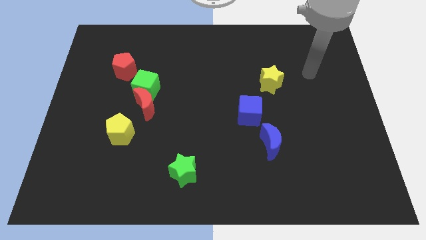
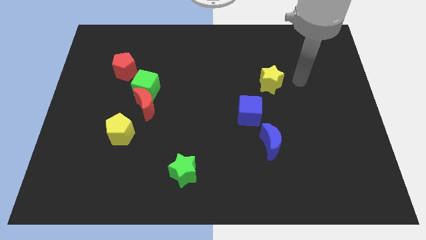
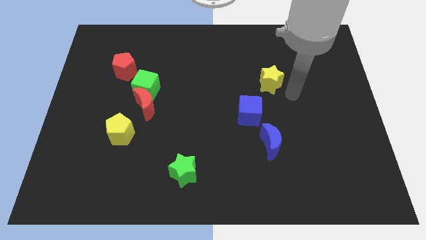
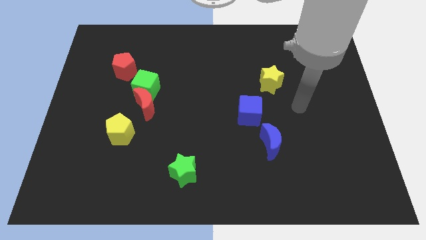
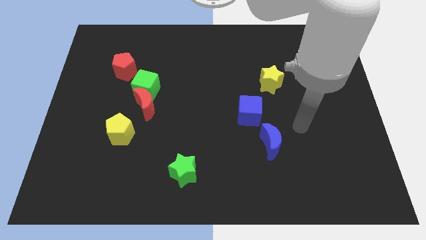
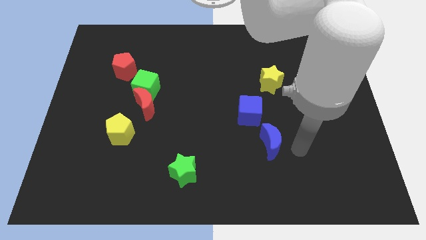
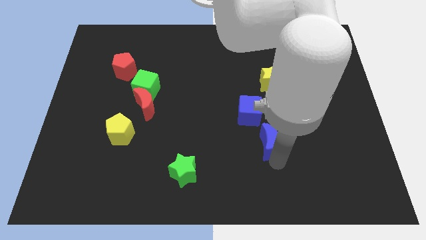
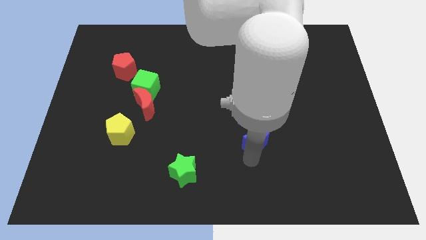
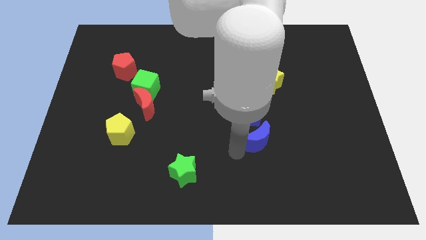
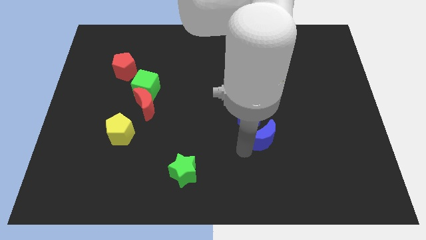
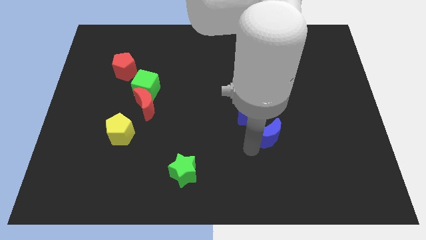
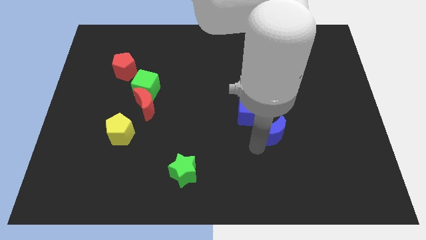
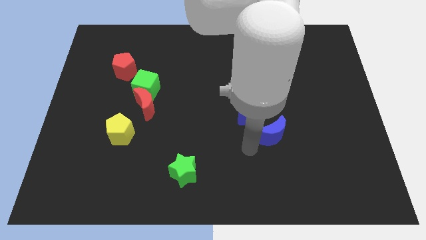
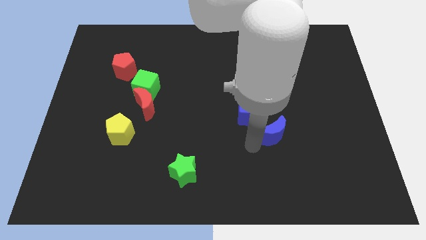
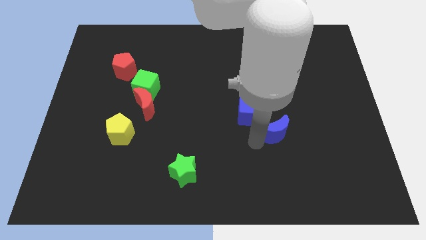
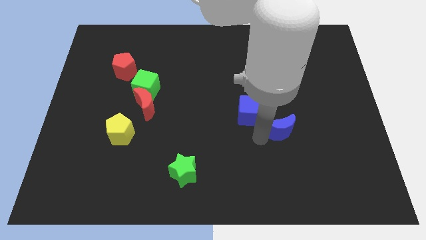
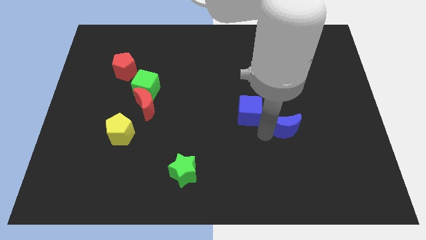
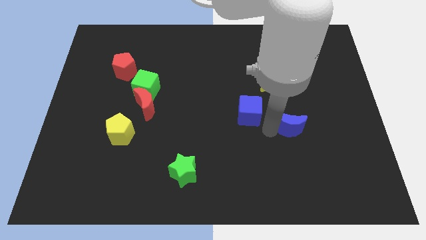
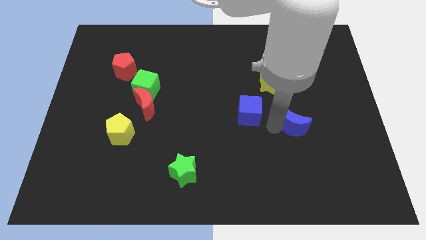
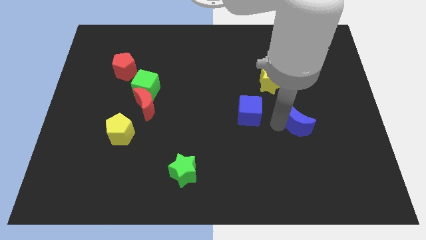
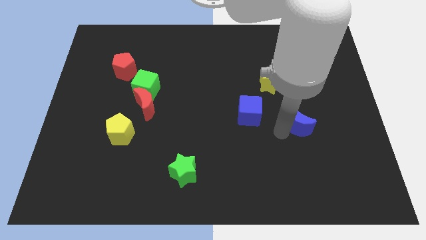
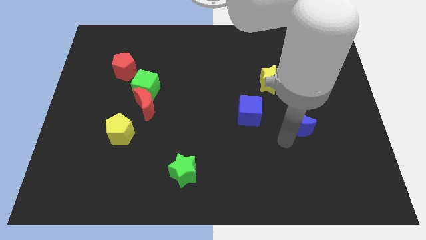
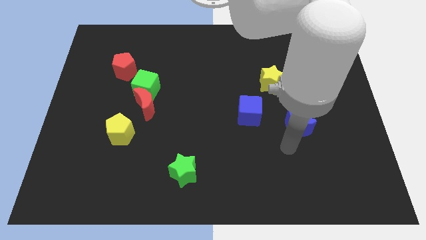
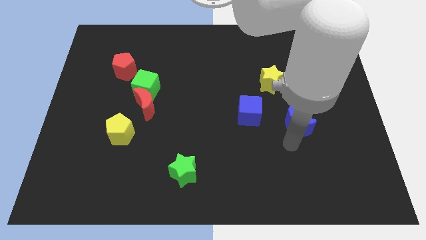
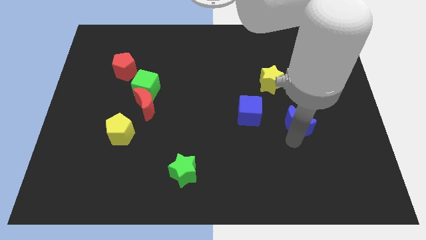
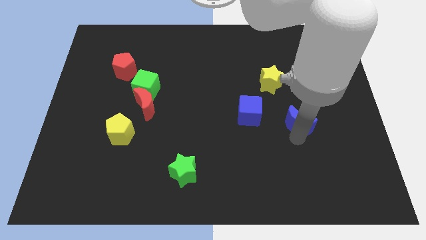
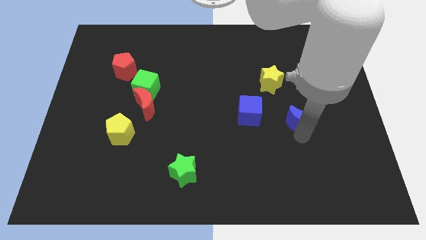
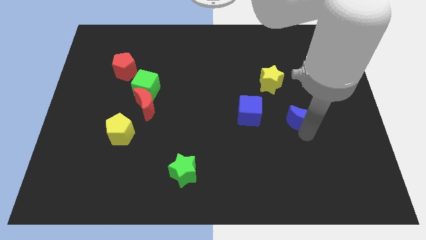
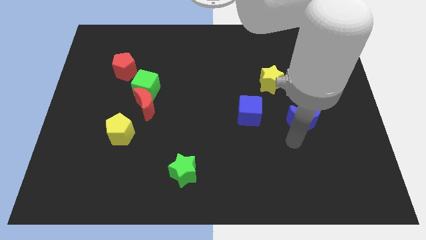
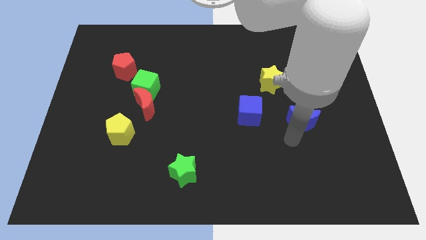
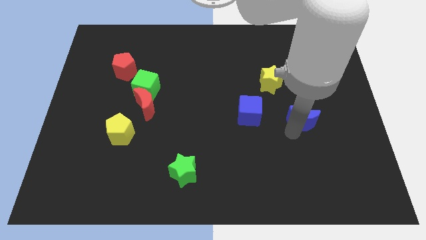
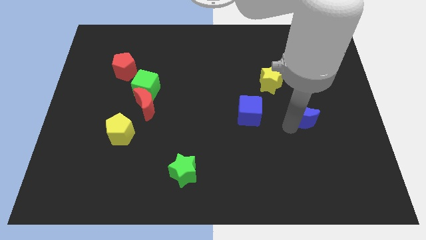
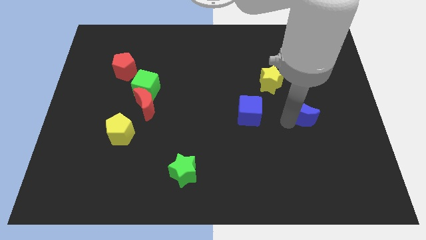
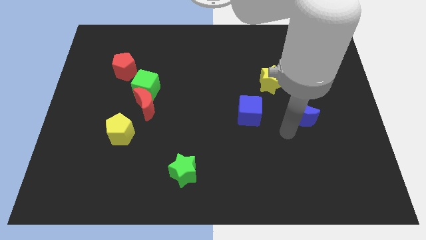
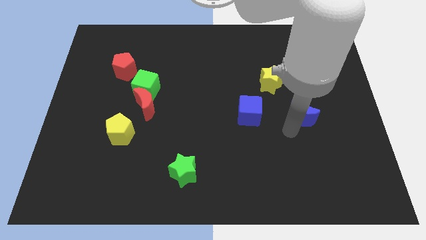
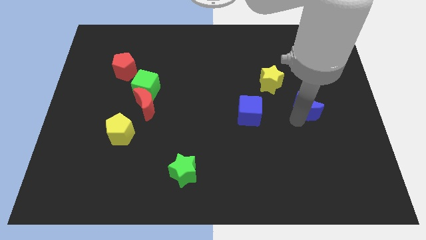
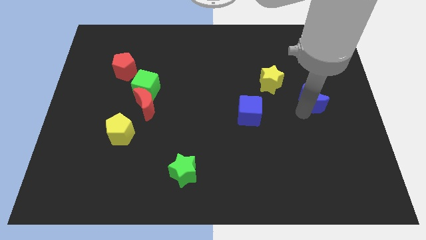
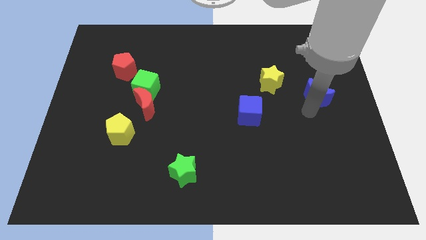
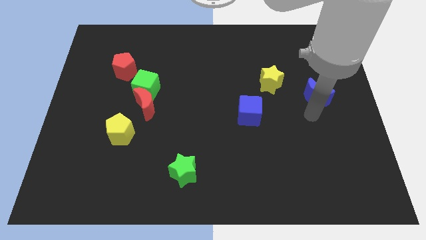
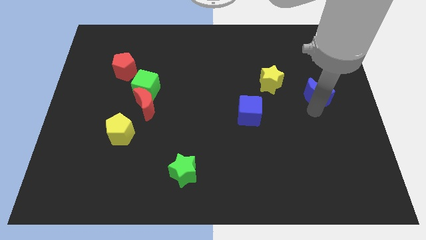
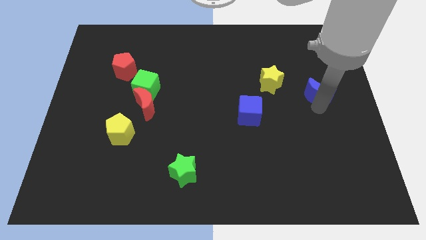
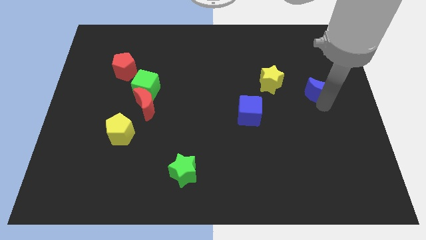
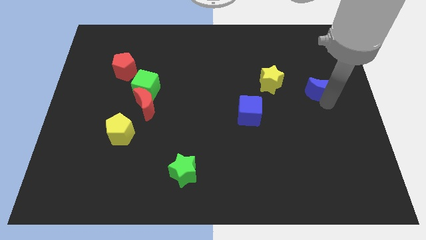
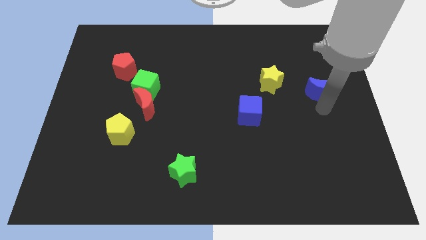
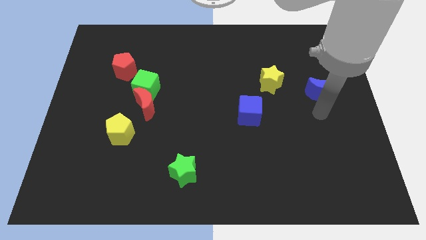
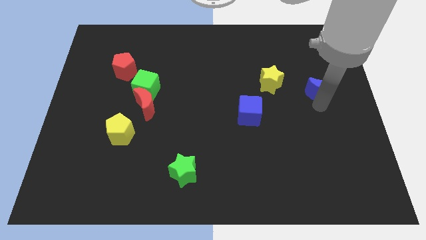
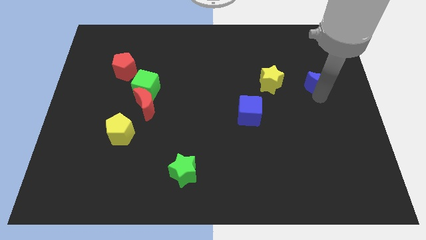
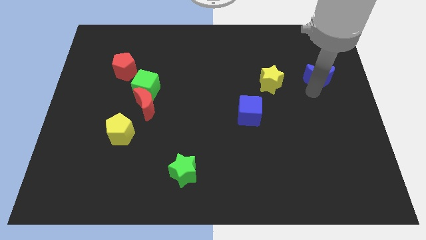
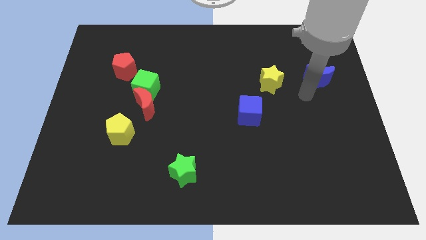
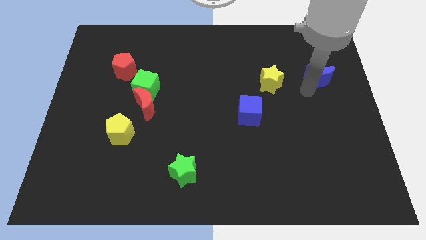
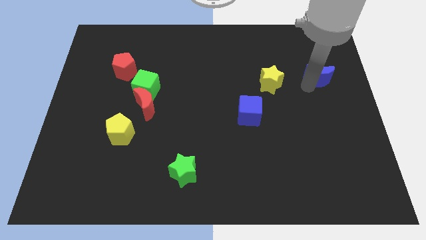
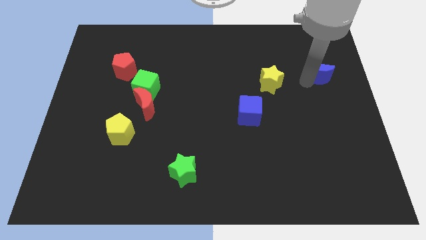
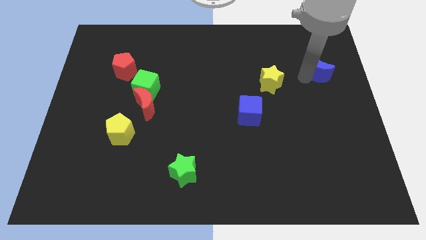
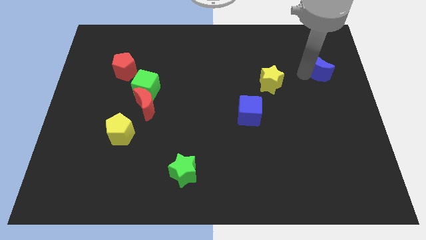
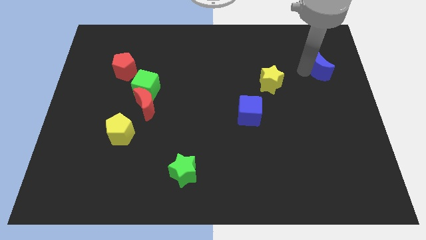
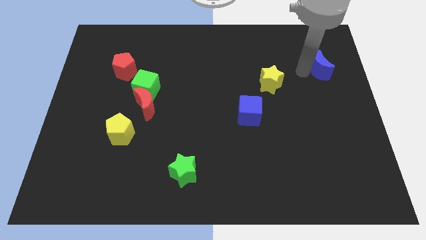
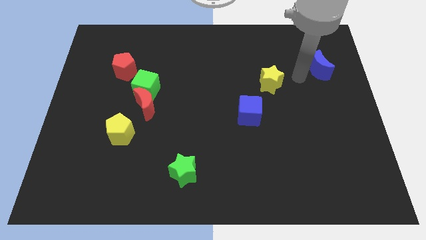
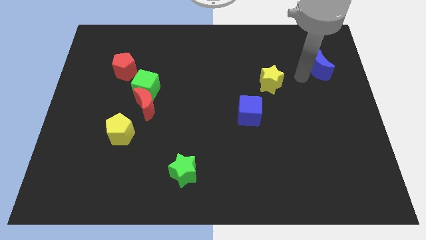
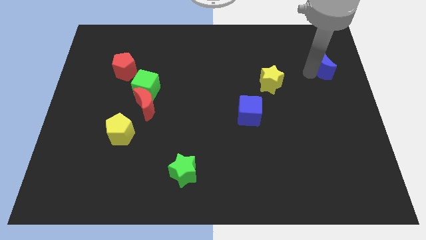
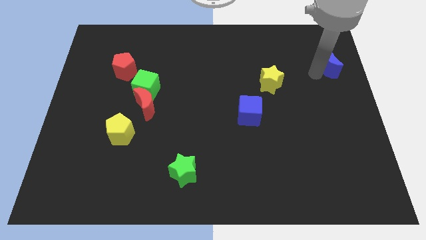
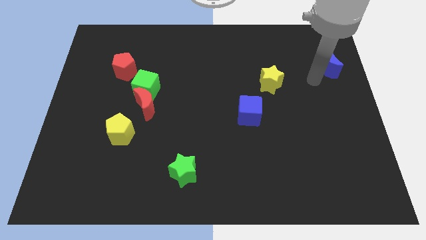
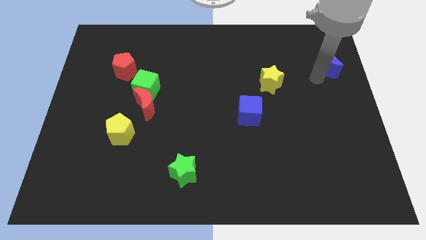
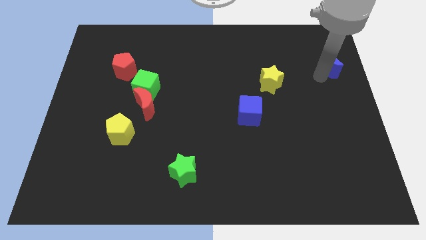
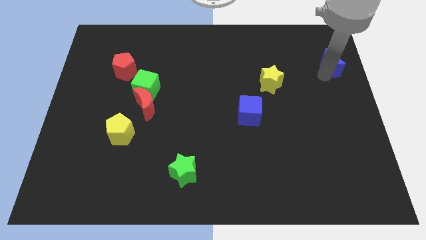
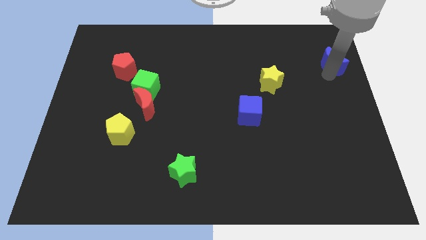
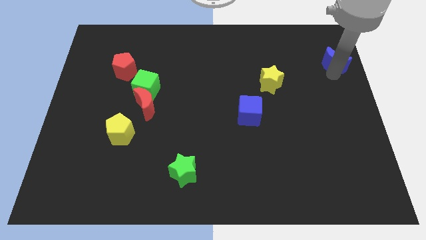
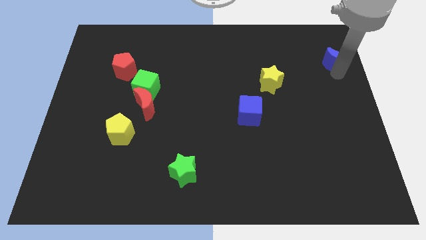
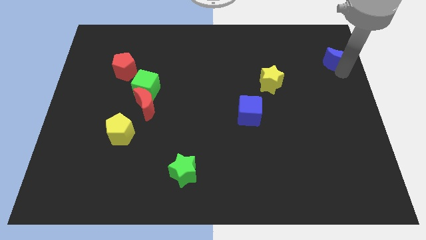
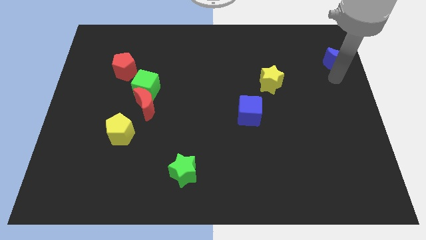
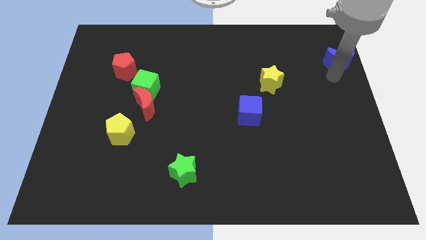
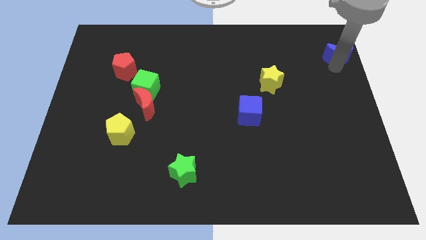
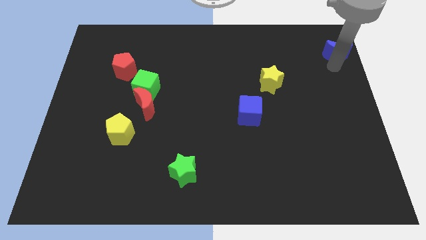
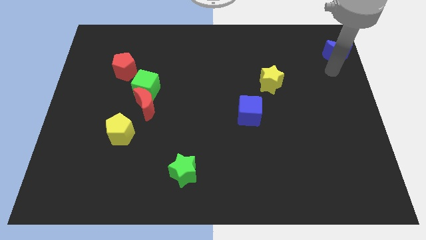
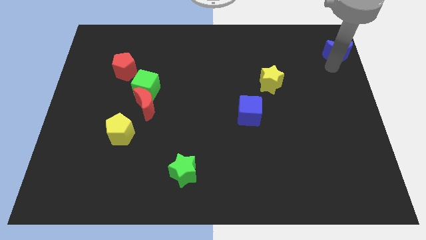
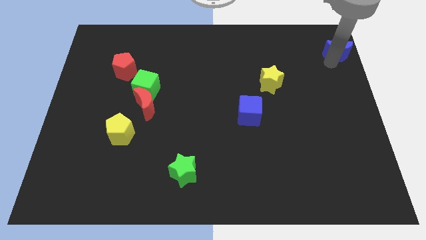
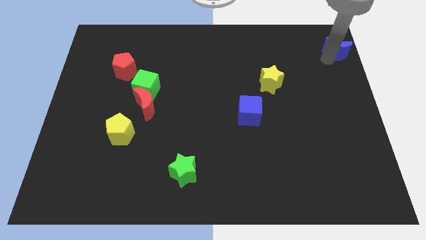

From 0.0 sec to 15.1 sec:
move the blue moon to the upper right corner
